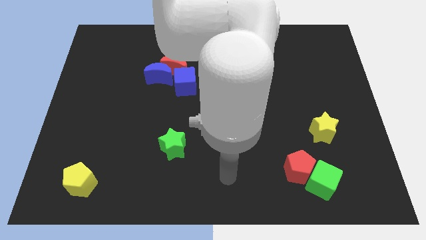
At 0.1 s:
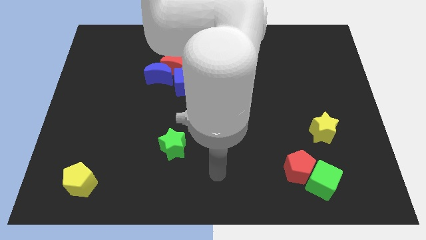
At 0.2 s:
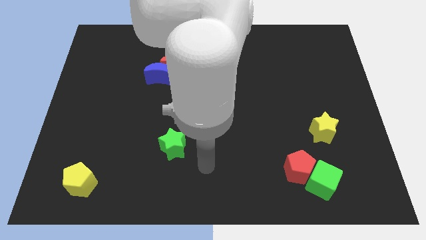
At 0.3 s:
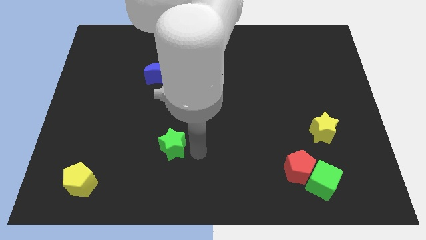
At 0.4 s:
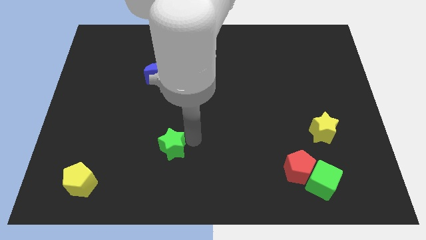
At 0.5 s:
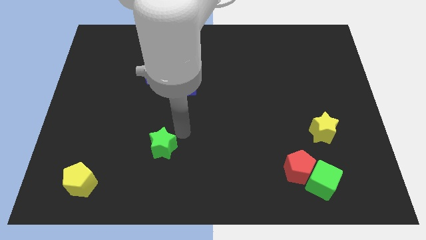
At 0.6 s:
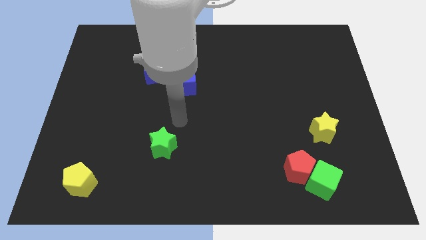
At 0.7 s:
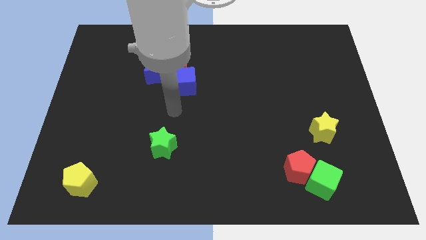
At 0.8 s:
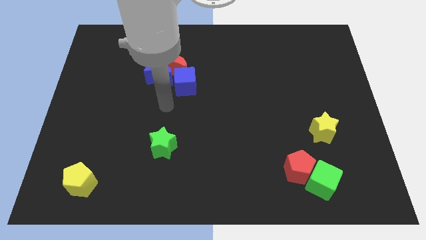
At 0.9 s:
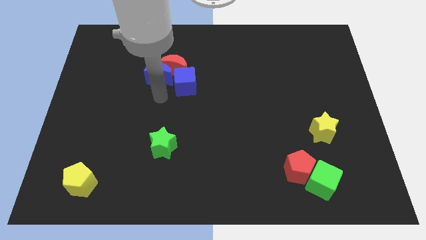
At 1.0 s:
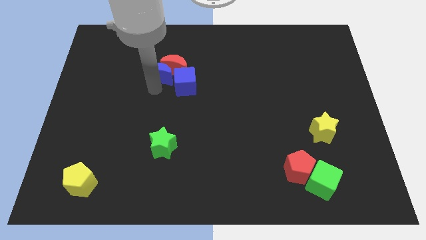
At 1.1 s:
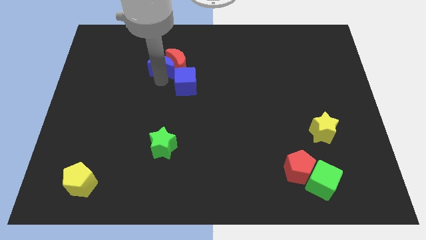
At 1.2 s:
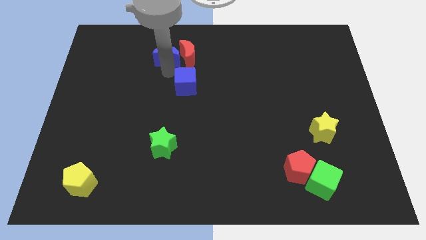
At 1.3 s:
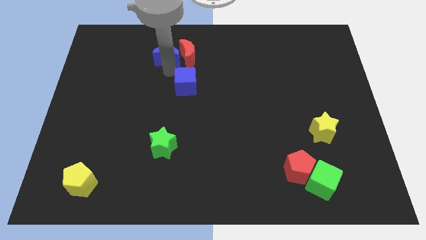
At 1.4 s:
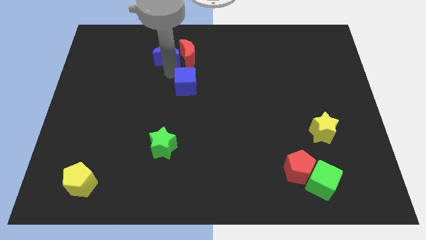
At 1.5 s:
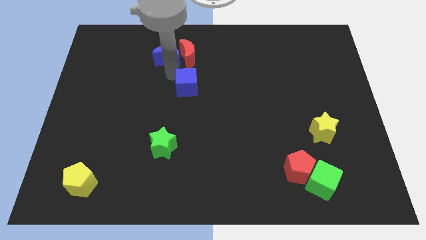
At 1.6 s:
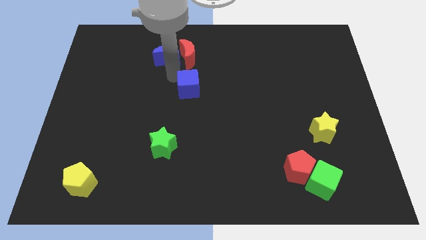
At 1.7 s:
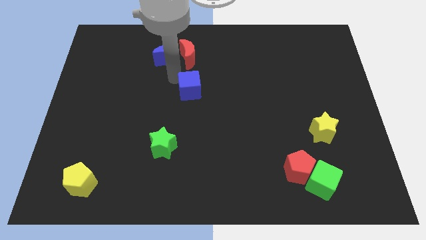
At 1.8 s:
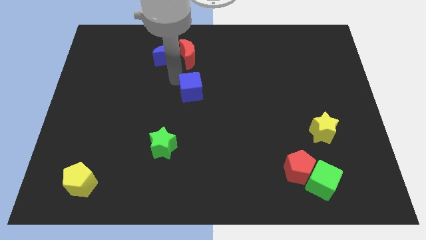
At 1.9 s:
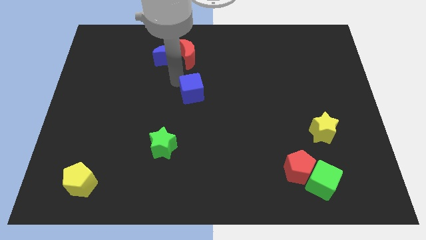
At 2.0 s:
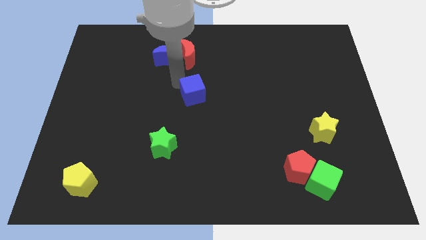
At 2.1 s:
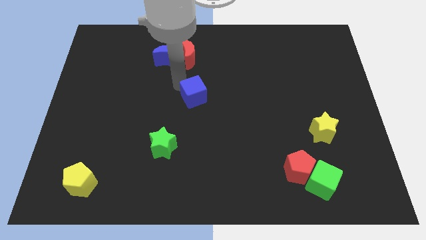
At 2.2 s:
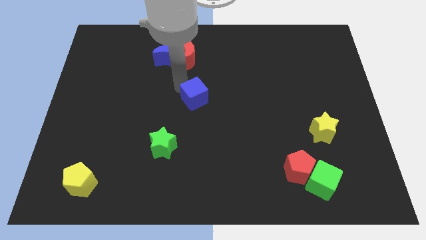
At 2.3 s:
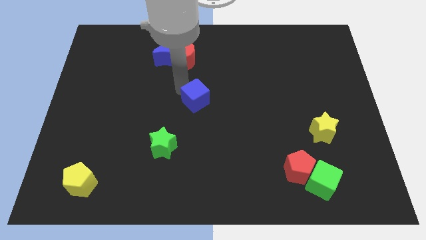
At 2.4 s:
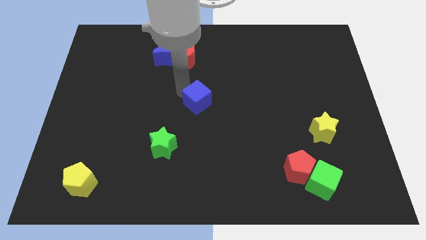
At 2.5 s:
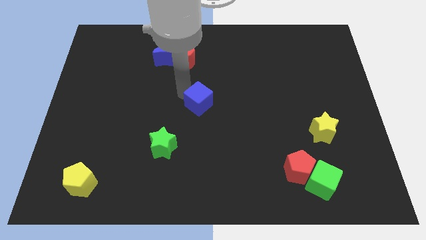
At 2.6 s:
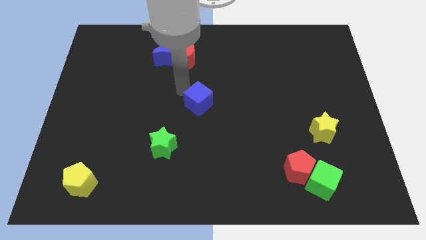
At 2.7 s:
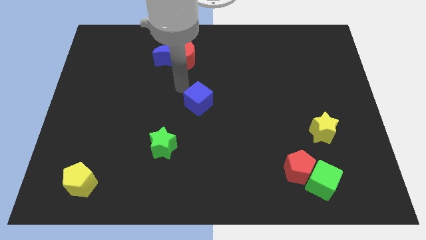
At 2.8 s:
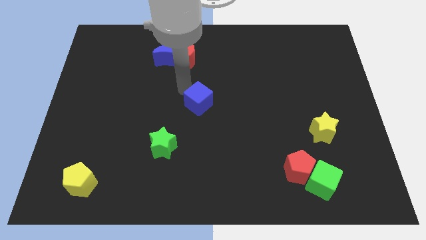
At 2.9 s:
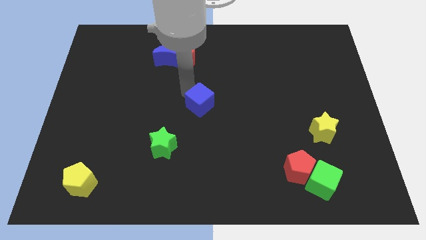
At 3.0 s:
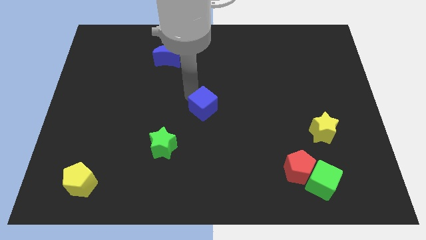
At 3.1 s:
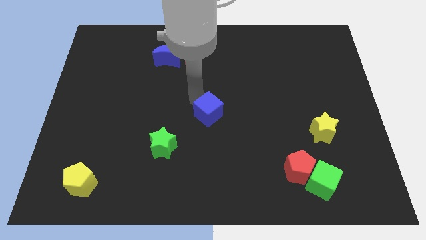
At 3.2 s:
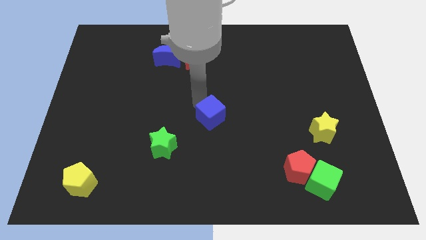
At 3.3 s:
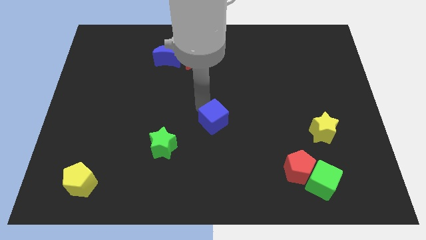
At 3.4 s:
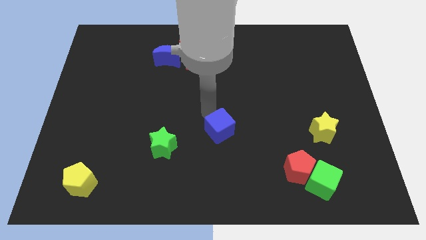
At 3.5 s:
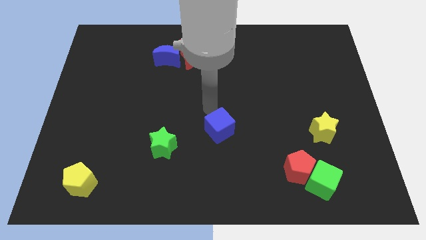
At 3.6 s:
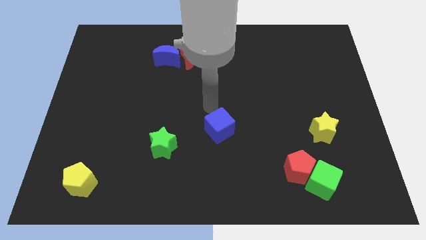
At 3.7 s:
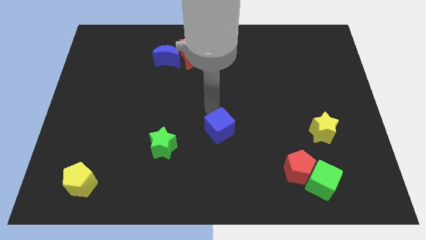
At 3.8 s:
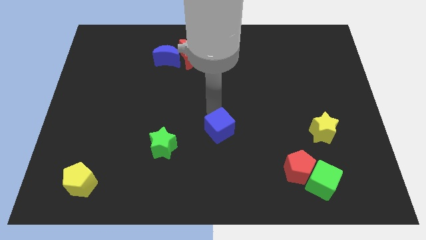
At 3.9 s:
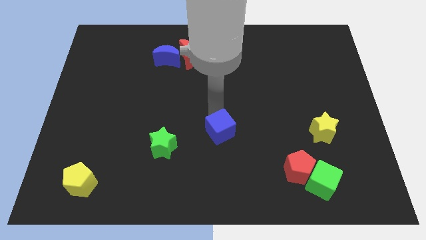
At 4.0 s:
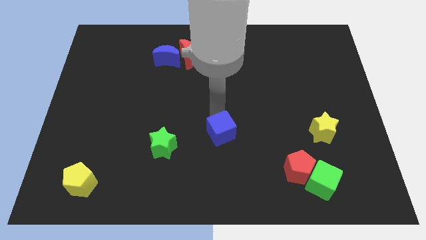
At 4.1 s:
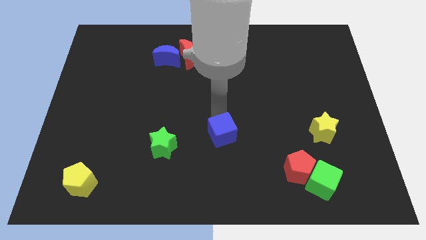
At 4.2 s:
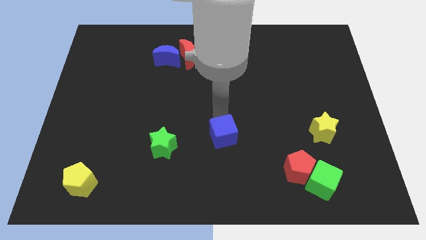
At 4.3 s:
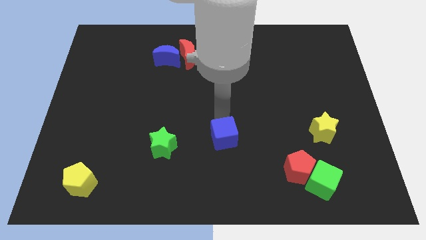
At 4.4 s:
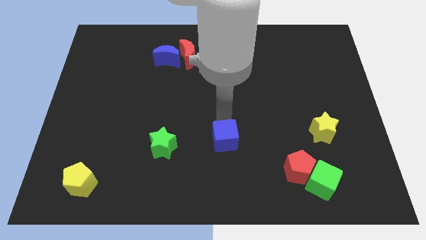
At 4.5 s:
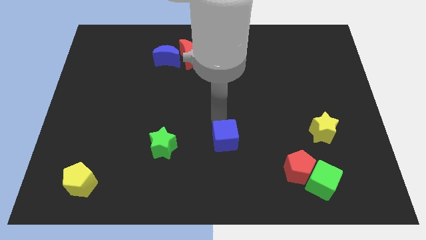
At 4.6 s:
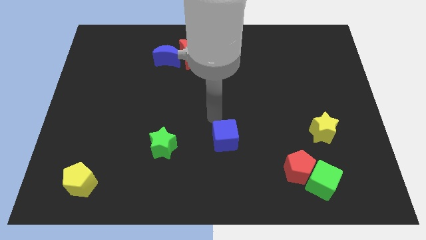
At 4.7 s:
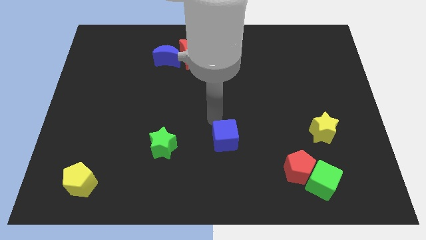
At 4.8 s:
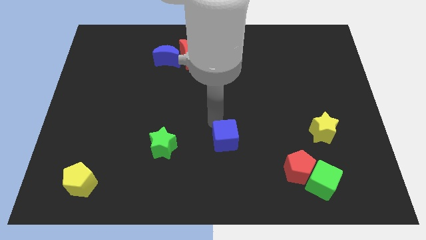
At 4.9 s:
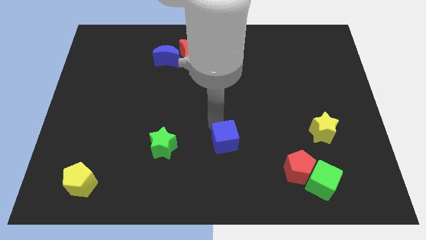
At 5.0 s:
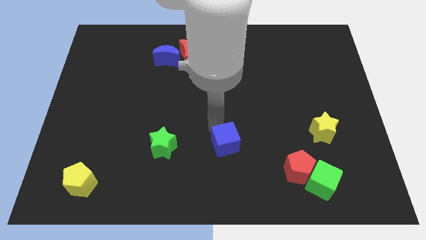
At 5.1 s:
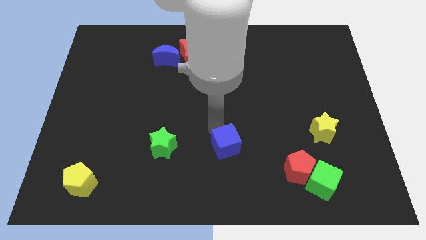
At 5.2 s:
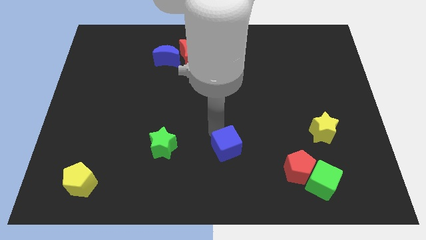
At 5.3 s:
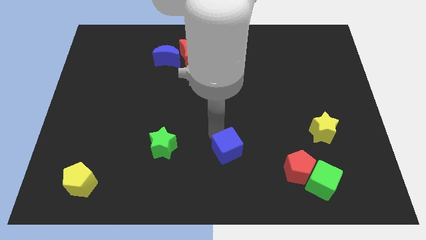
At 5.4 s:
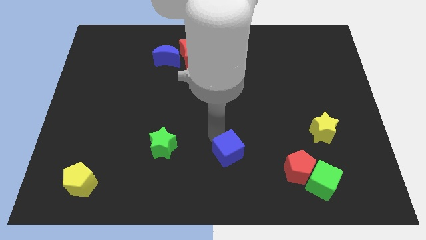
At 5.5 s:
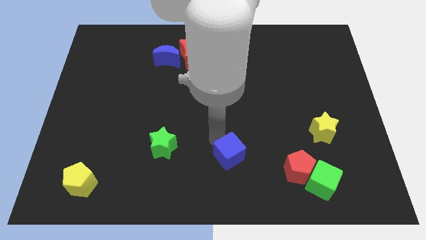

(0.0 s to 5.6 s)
push the blue cube just left of the red pentagon

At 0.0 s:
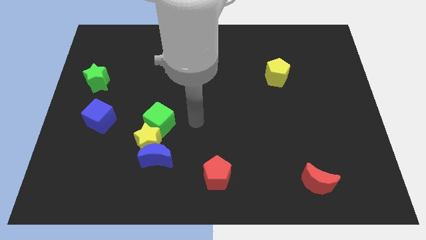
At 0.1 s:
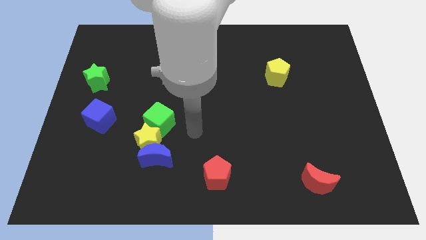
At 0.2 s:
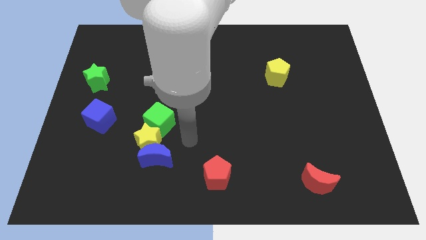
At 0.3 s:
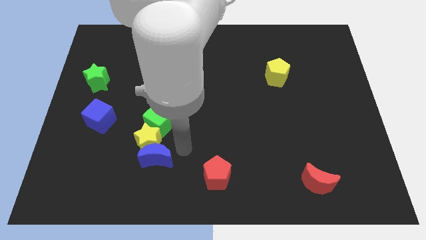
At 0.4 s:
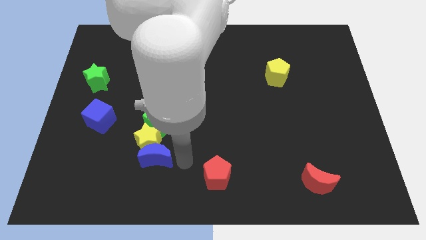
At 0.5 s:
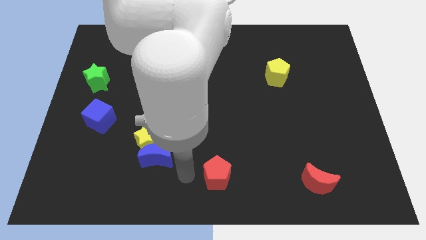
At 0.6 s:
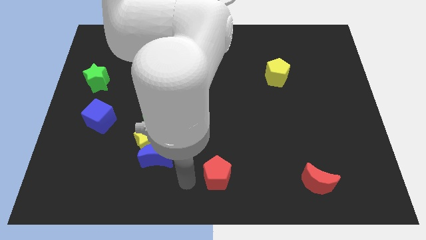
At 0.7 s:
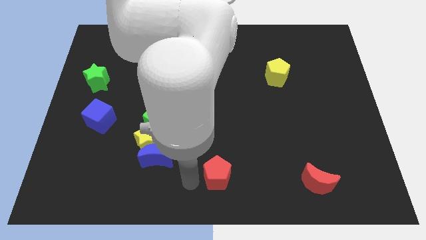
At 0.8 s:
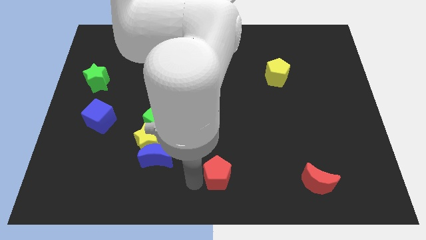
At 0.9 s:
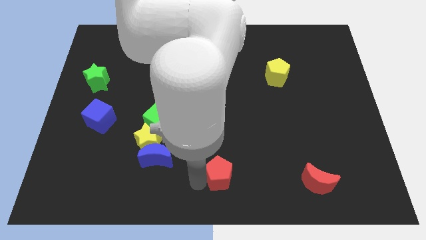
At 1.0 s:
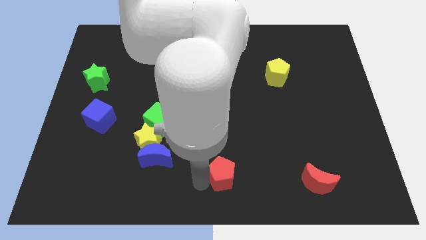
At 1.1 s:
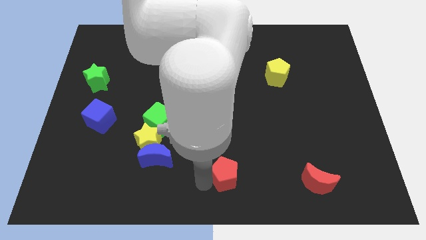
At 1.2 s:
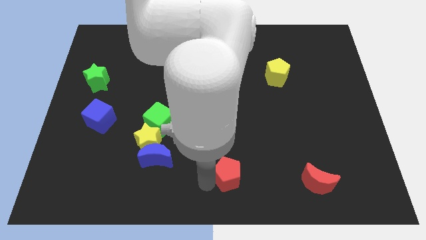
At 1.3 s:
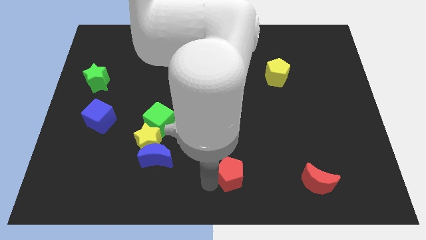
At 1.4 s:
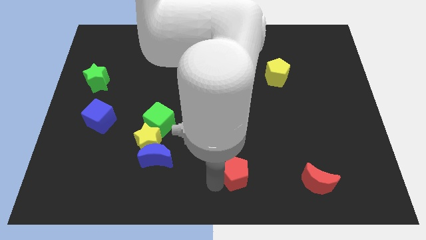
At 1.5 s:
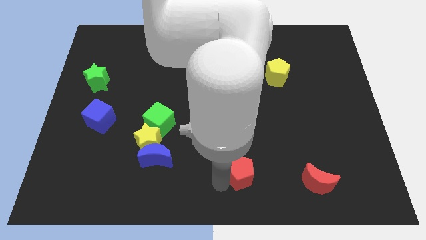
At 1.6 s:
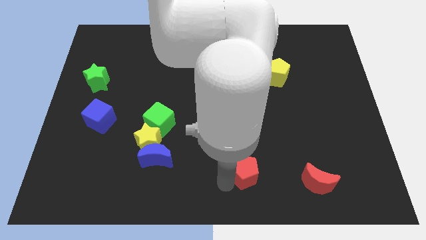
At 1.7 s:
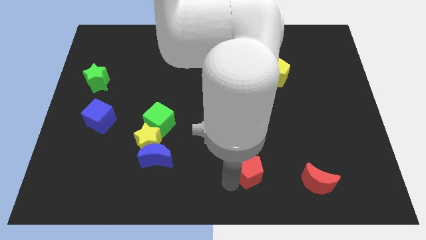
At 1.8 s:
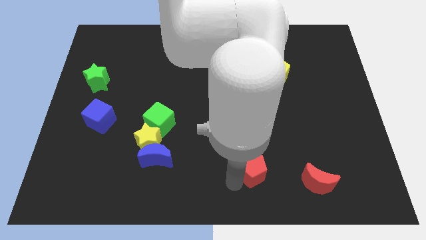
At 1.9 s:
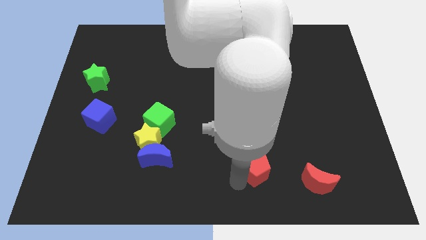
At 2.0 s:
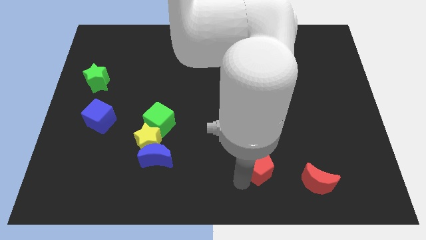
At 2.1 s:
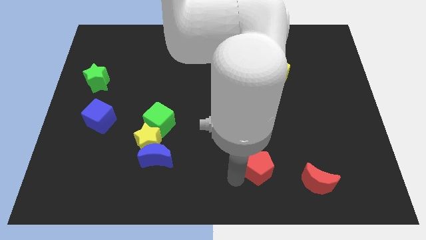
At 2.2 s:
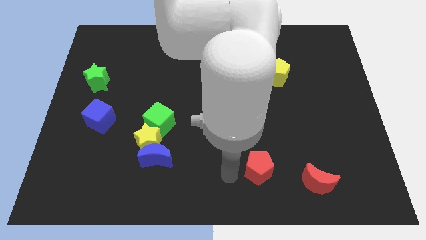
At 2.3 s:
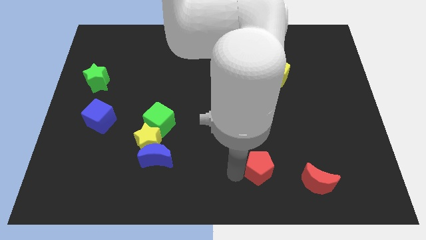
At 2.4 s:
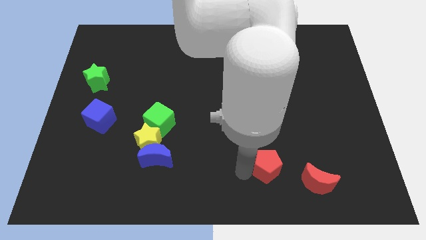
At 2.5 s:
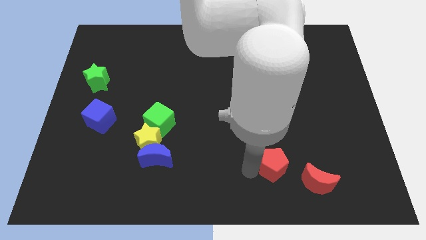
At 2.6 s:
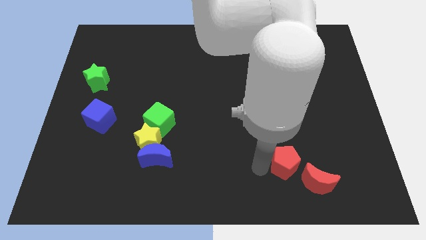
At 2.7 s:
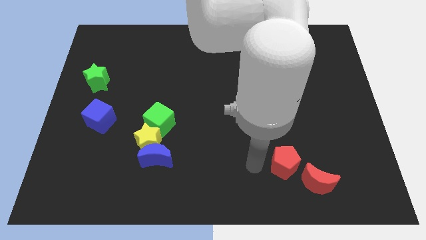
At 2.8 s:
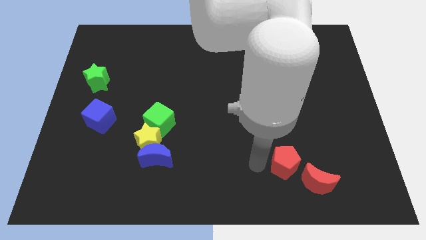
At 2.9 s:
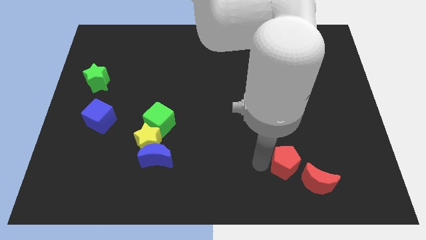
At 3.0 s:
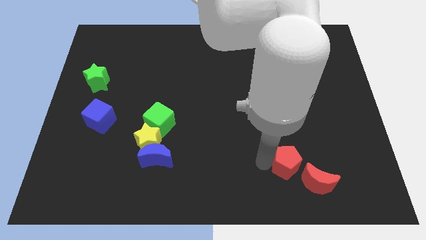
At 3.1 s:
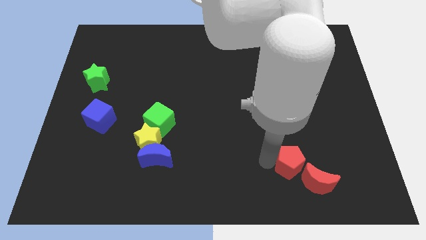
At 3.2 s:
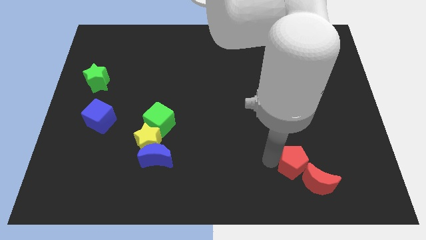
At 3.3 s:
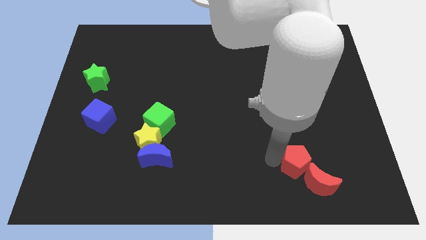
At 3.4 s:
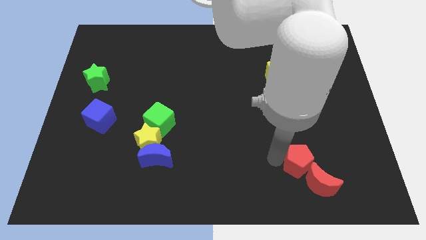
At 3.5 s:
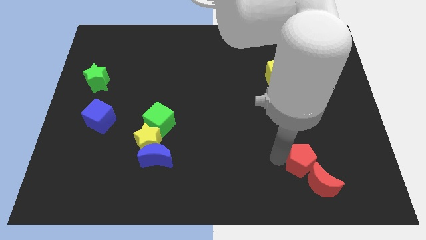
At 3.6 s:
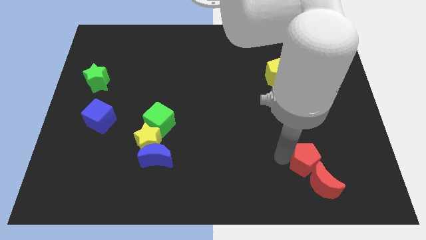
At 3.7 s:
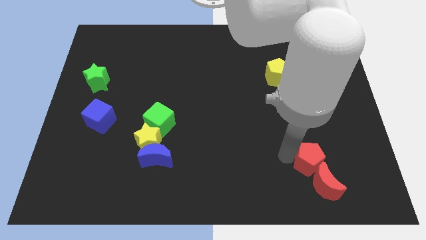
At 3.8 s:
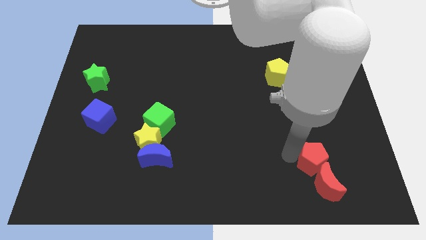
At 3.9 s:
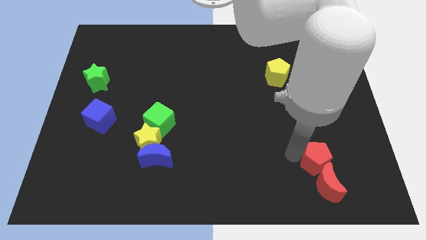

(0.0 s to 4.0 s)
put the red pentagon to the top right of the red moon
